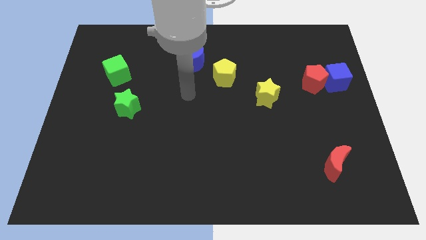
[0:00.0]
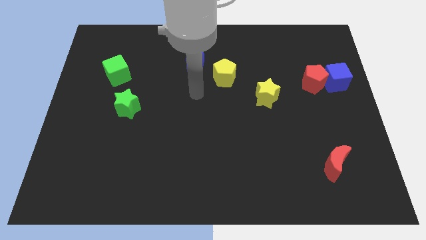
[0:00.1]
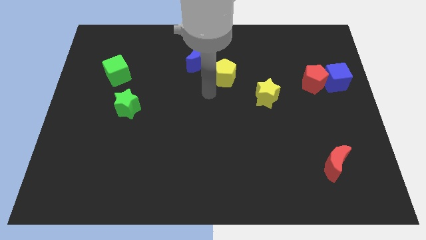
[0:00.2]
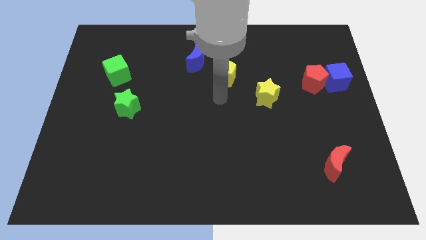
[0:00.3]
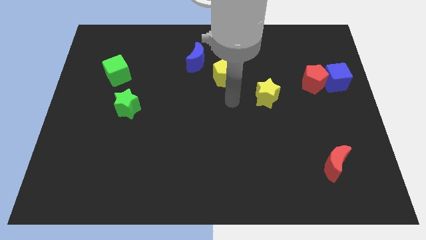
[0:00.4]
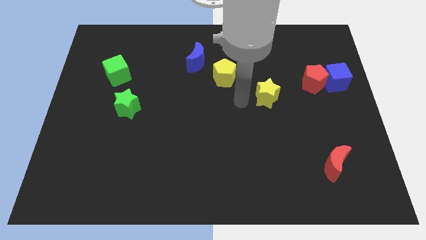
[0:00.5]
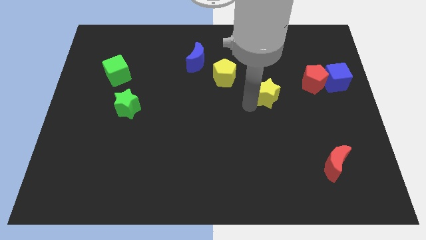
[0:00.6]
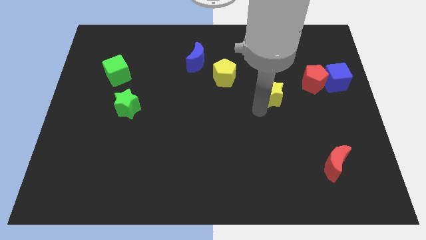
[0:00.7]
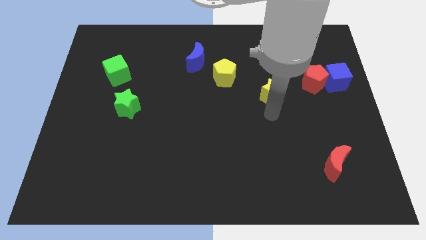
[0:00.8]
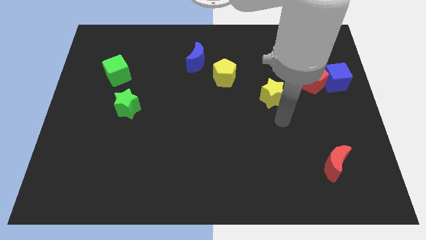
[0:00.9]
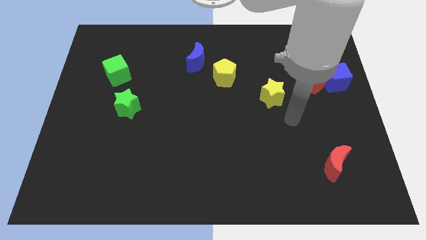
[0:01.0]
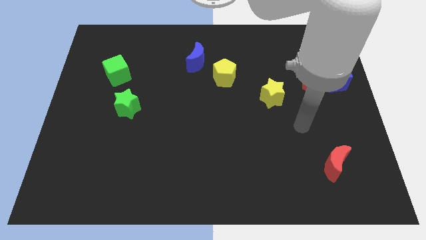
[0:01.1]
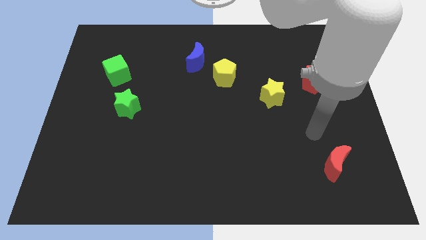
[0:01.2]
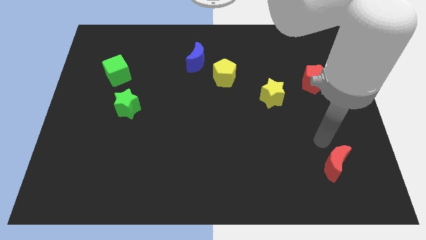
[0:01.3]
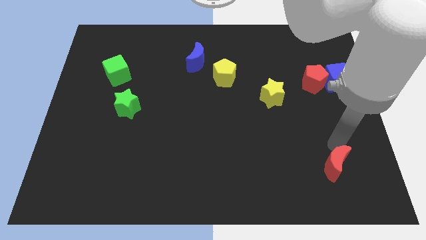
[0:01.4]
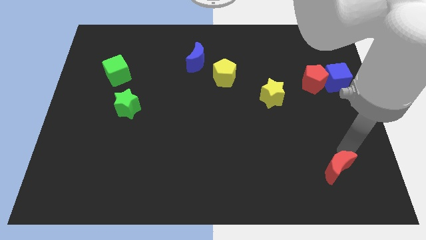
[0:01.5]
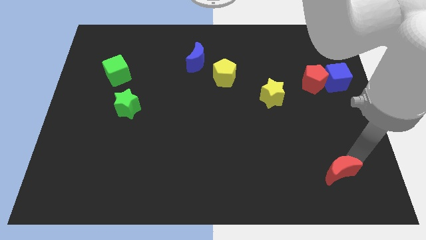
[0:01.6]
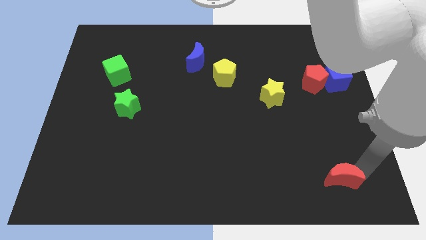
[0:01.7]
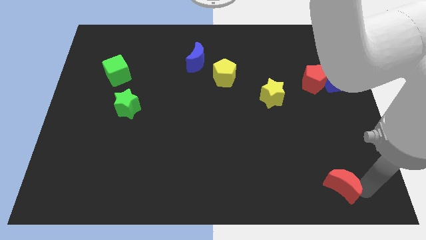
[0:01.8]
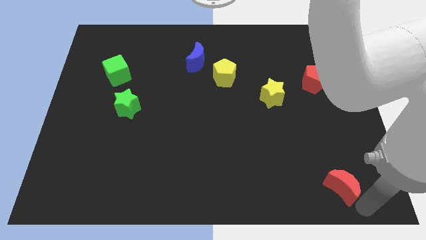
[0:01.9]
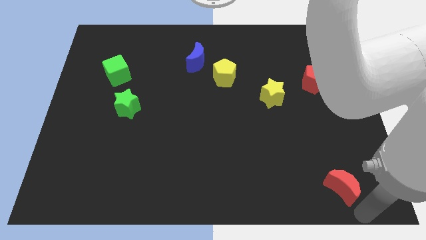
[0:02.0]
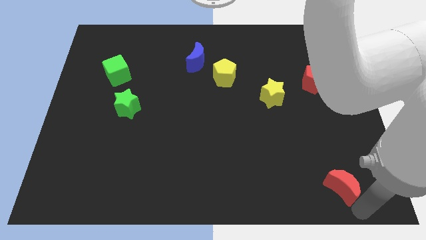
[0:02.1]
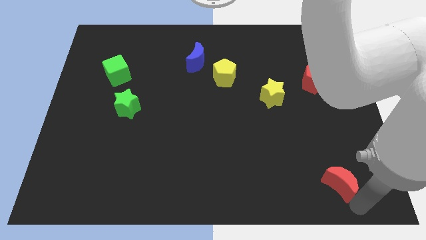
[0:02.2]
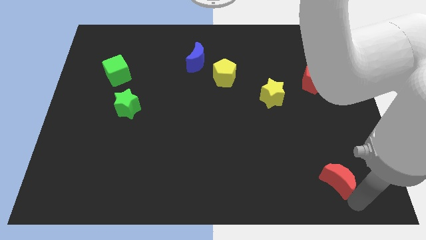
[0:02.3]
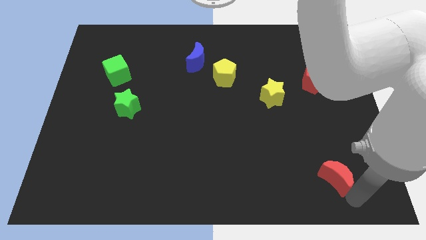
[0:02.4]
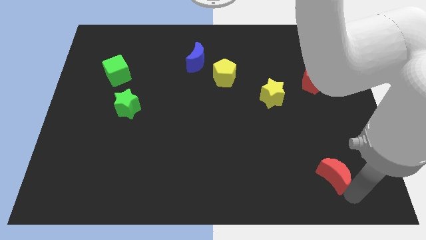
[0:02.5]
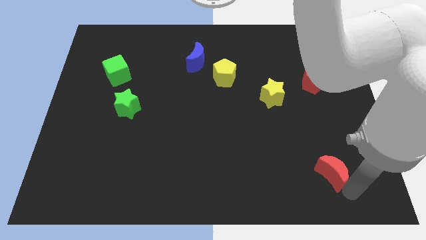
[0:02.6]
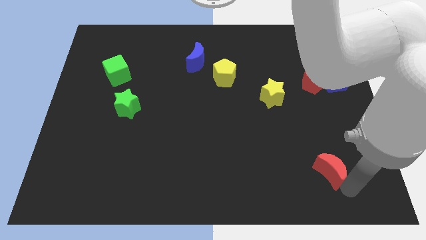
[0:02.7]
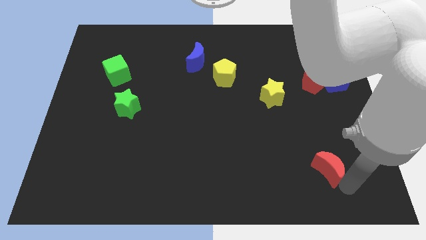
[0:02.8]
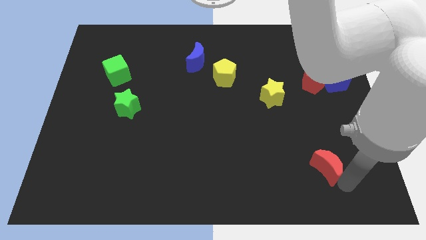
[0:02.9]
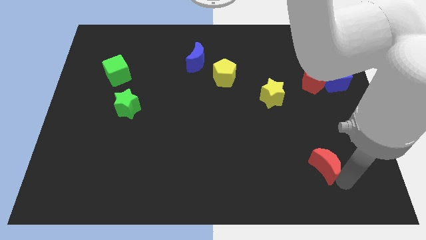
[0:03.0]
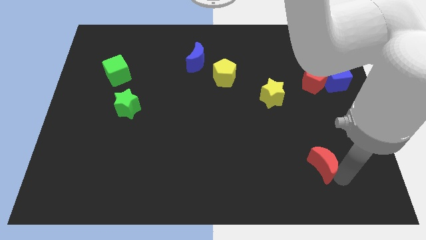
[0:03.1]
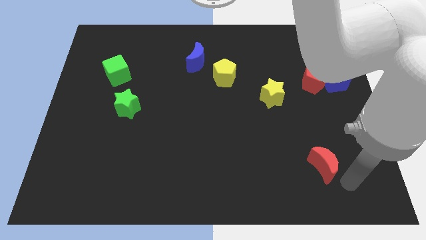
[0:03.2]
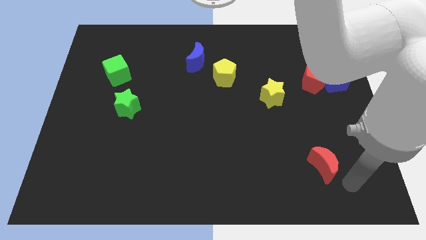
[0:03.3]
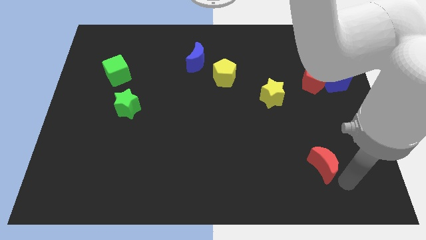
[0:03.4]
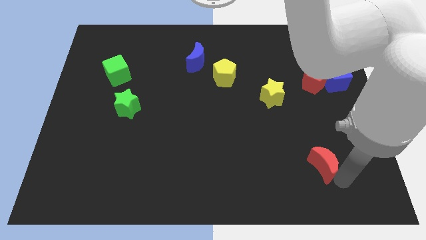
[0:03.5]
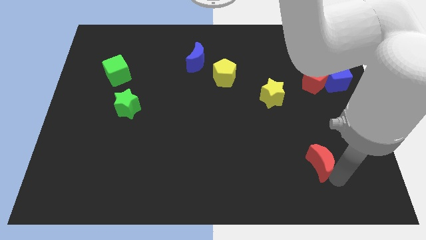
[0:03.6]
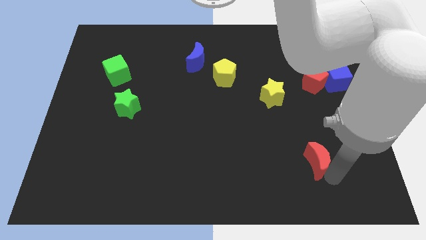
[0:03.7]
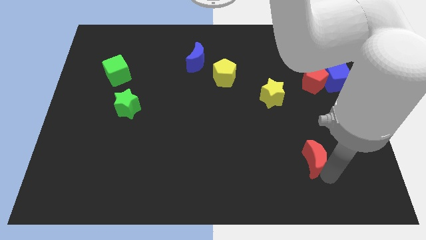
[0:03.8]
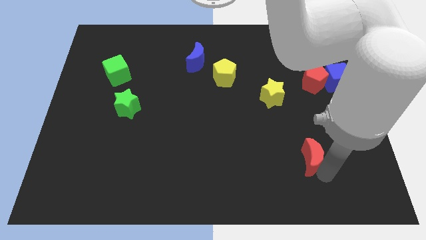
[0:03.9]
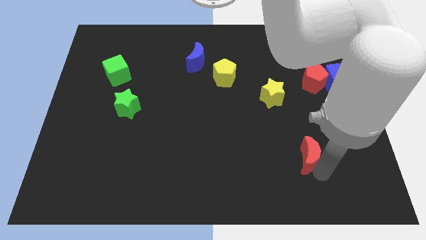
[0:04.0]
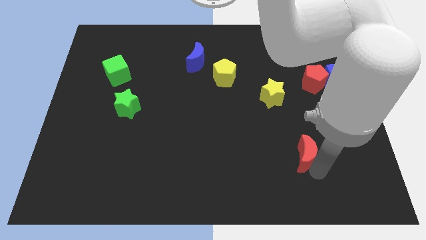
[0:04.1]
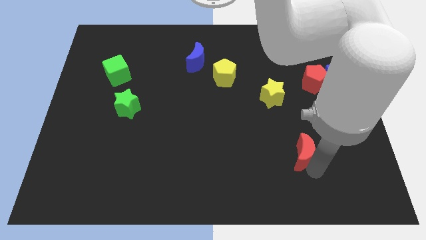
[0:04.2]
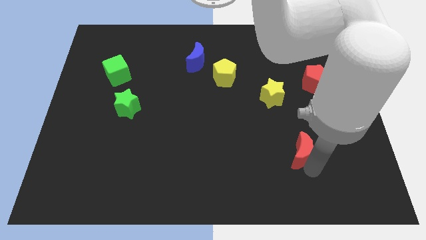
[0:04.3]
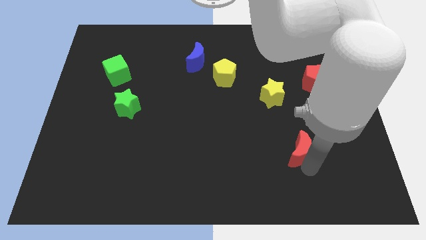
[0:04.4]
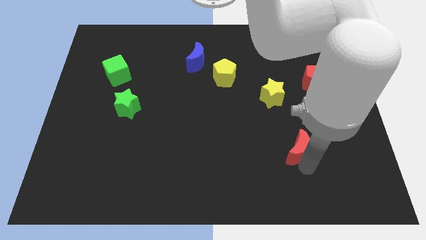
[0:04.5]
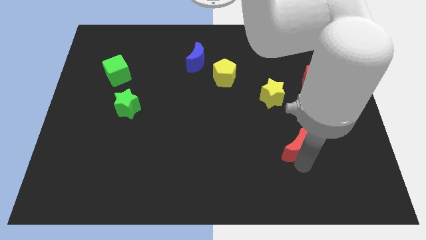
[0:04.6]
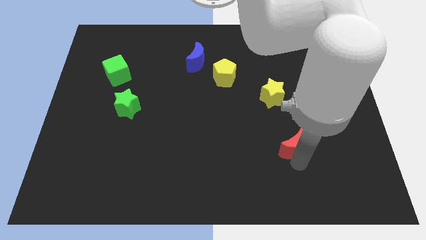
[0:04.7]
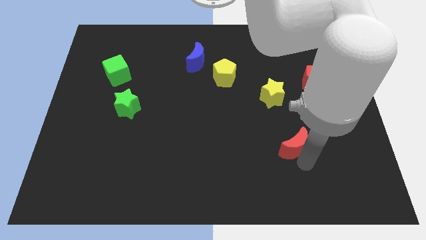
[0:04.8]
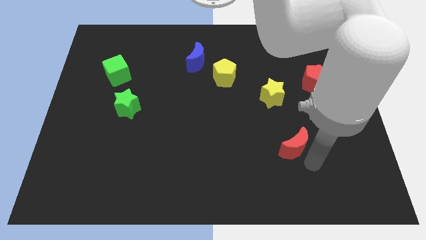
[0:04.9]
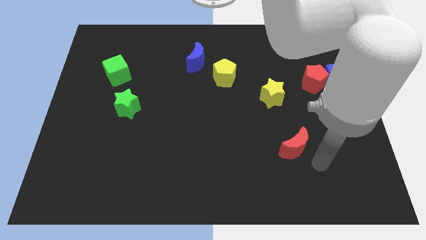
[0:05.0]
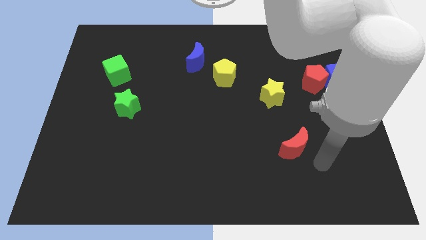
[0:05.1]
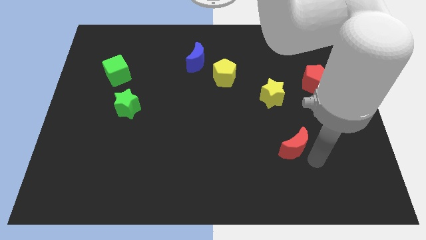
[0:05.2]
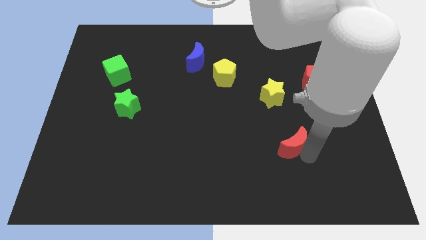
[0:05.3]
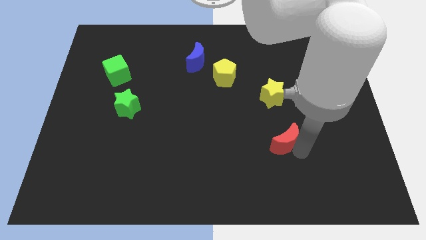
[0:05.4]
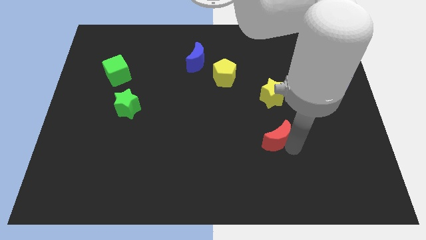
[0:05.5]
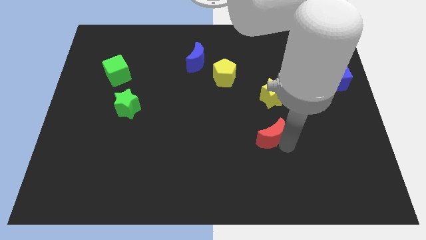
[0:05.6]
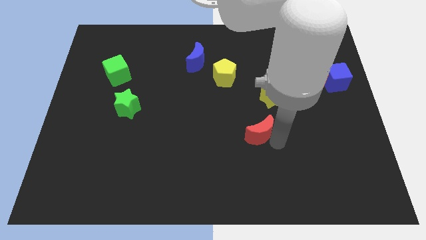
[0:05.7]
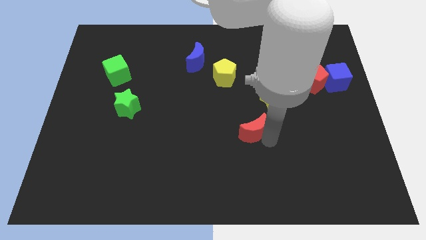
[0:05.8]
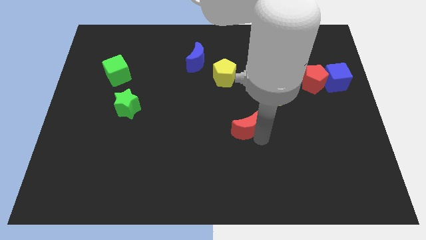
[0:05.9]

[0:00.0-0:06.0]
push the red moon to the middle of the board
